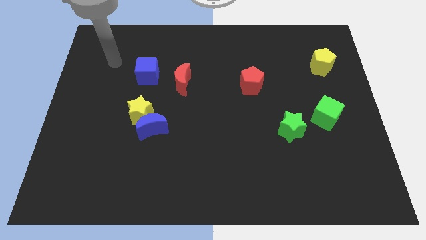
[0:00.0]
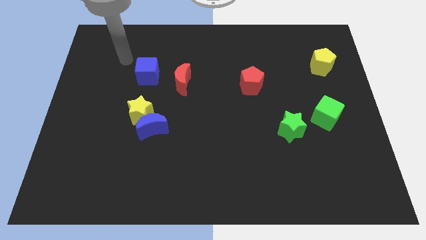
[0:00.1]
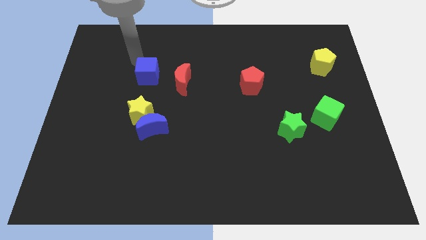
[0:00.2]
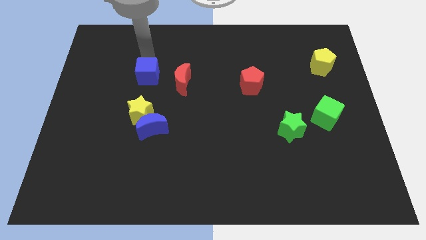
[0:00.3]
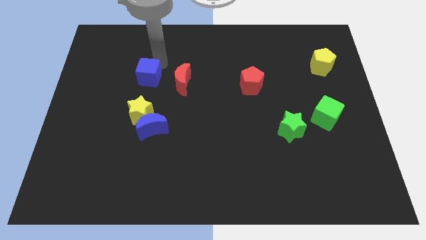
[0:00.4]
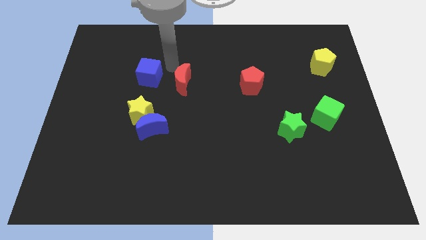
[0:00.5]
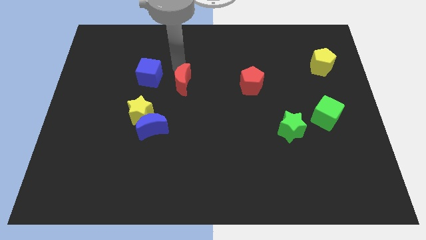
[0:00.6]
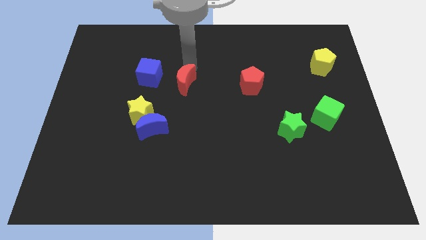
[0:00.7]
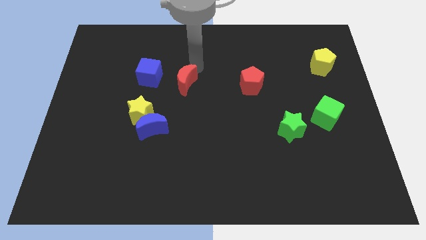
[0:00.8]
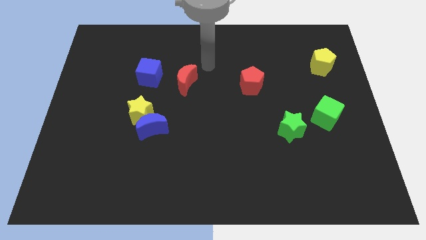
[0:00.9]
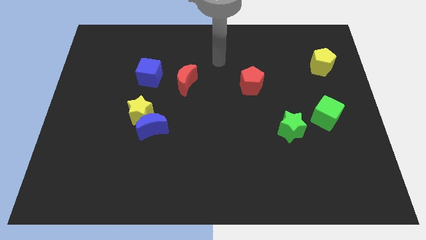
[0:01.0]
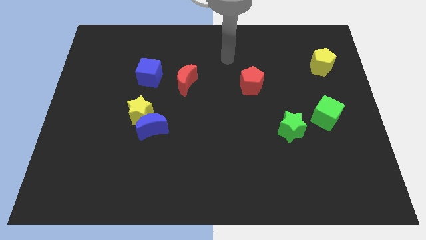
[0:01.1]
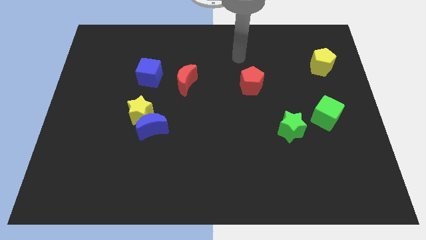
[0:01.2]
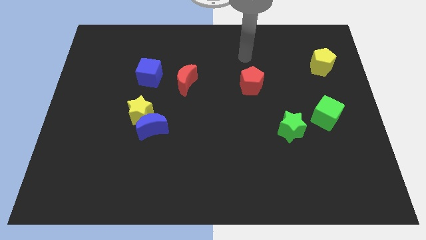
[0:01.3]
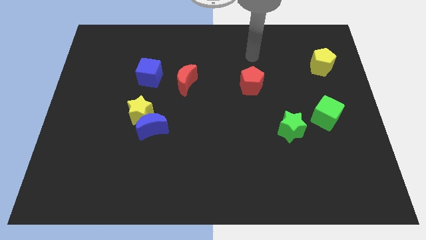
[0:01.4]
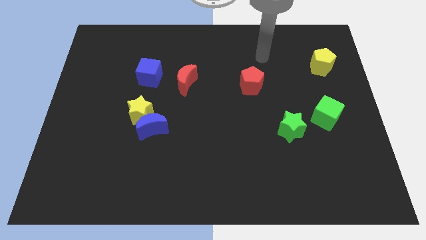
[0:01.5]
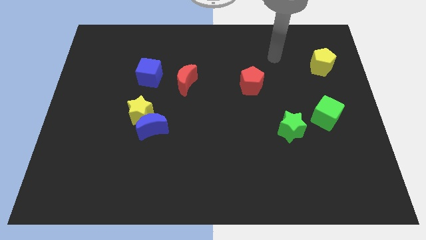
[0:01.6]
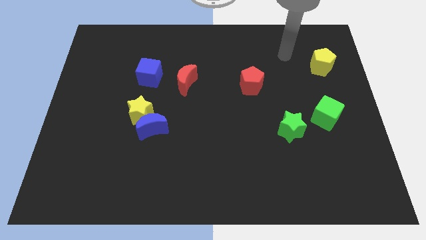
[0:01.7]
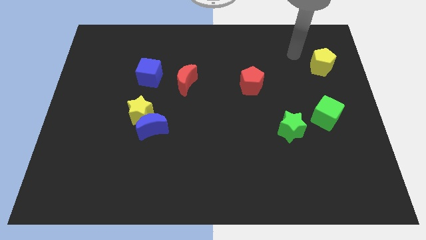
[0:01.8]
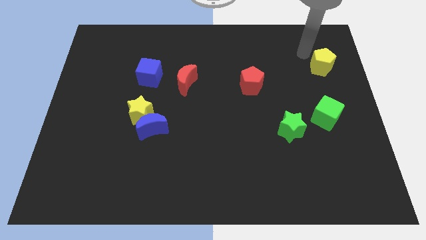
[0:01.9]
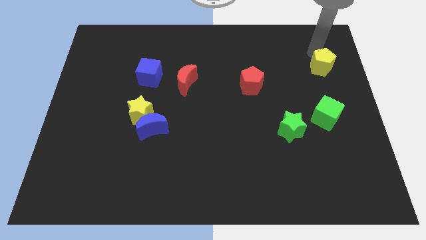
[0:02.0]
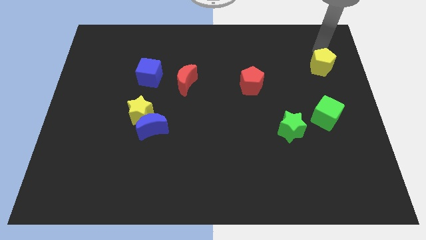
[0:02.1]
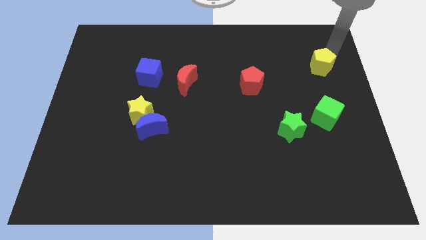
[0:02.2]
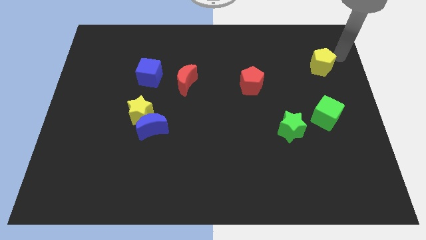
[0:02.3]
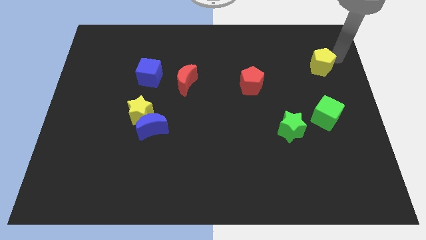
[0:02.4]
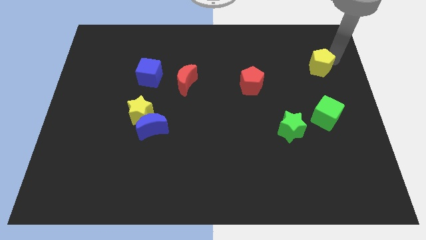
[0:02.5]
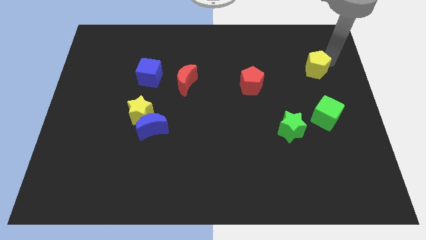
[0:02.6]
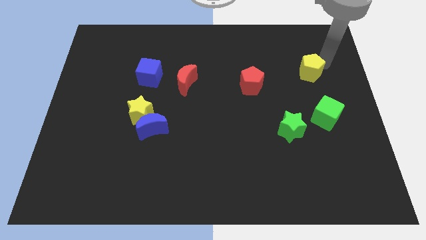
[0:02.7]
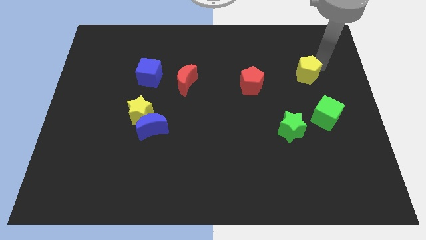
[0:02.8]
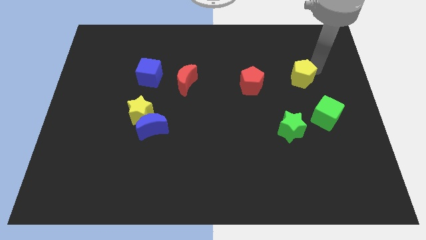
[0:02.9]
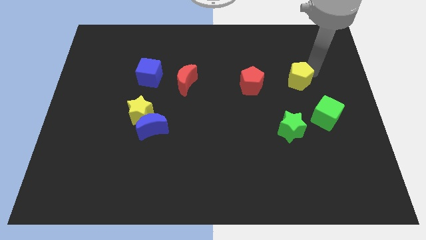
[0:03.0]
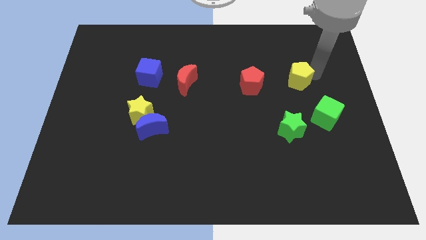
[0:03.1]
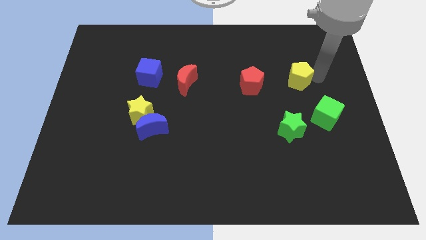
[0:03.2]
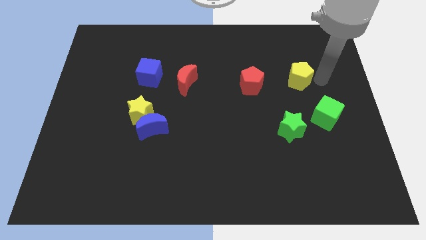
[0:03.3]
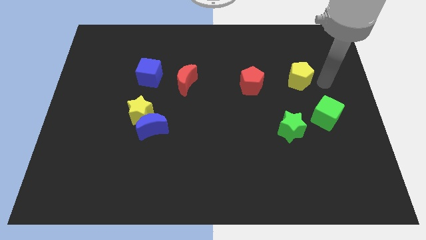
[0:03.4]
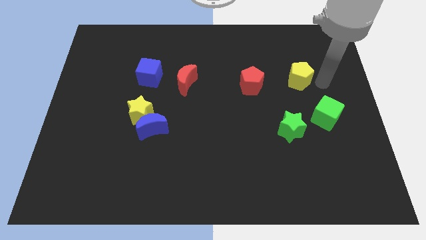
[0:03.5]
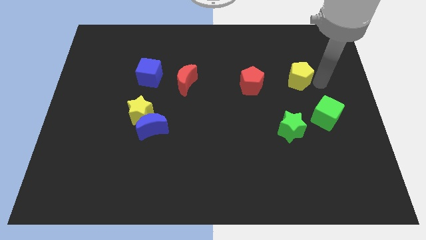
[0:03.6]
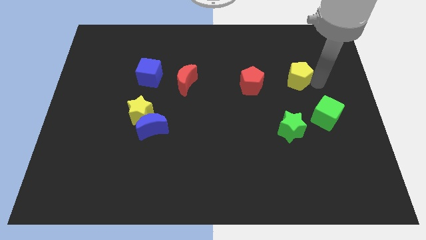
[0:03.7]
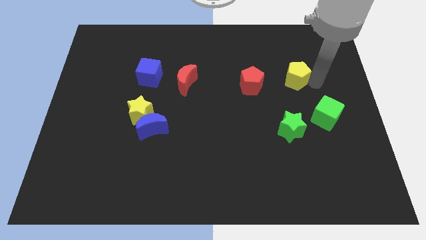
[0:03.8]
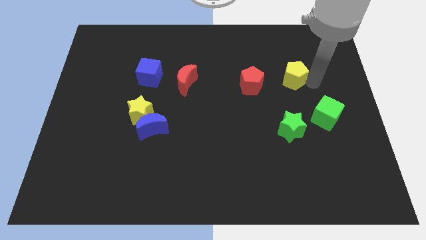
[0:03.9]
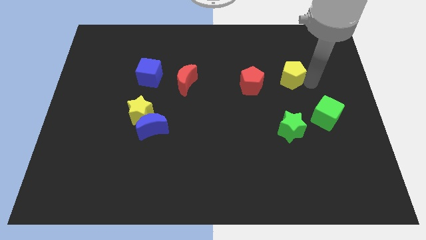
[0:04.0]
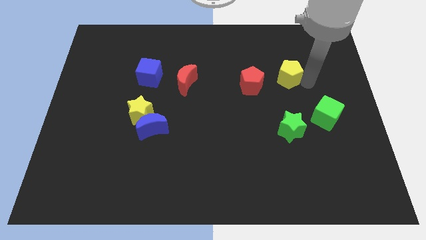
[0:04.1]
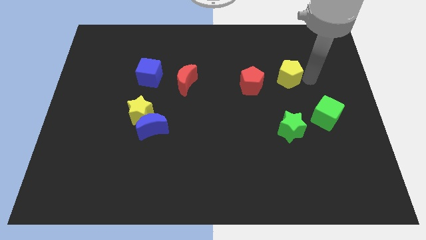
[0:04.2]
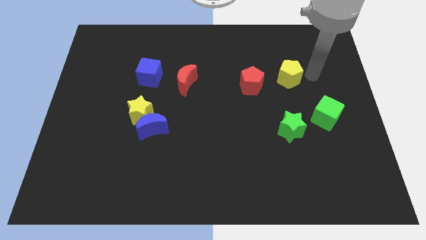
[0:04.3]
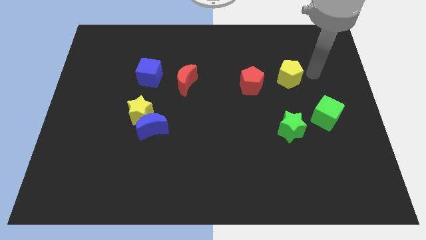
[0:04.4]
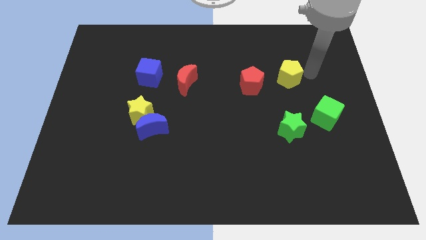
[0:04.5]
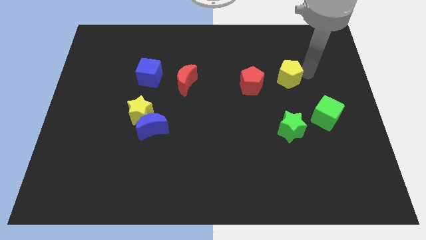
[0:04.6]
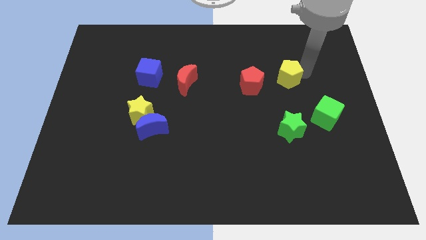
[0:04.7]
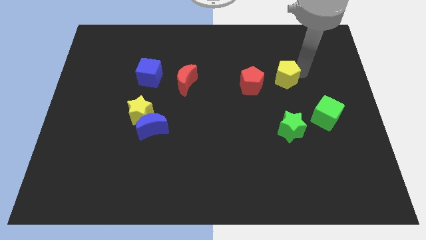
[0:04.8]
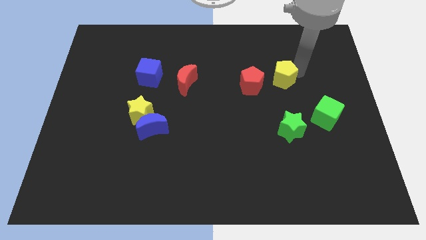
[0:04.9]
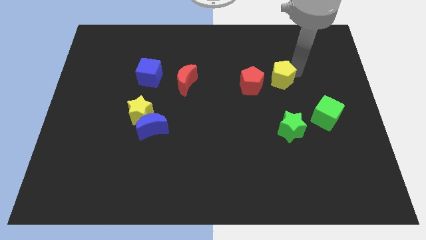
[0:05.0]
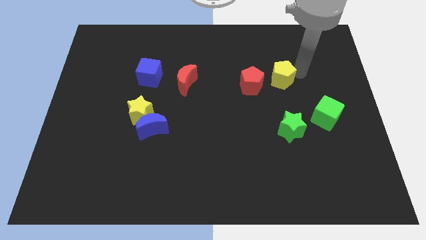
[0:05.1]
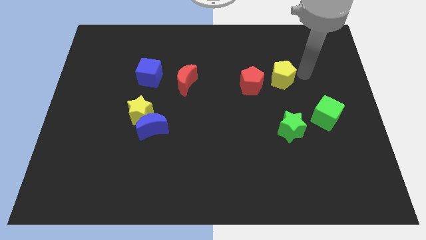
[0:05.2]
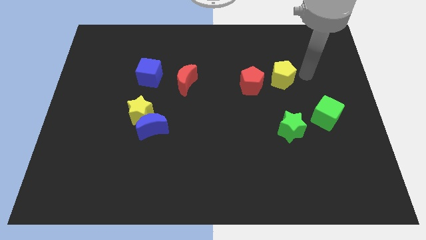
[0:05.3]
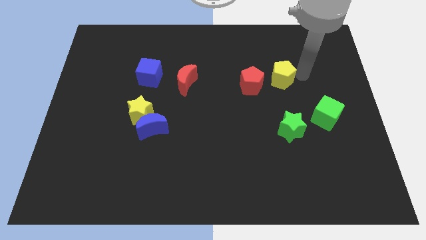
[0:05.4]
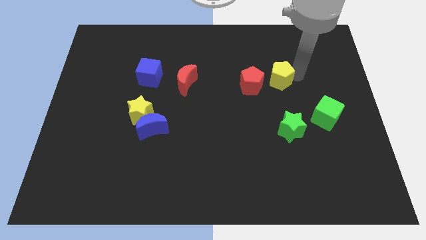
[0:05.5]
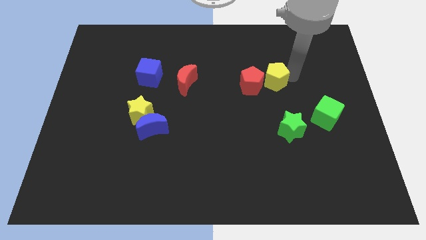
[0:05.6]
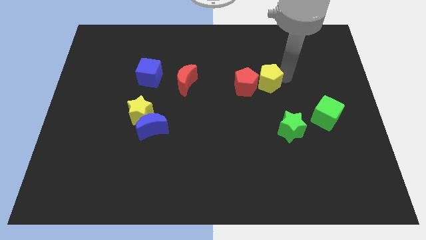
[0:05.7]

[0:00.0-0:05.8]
move the yellow pentagon to the red pentagon

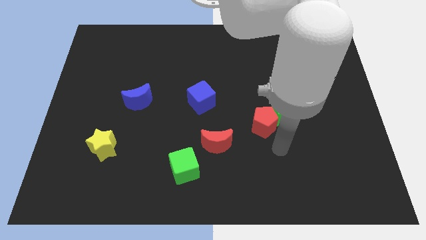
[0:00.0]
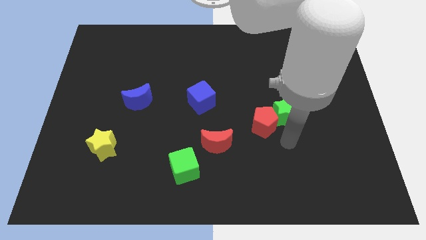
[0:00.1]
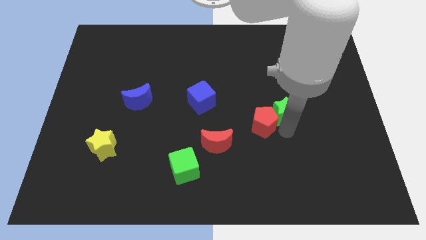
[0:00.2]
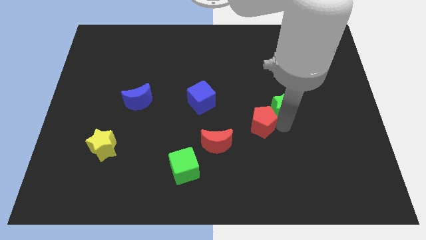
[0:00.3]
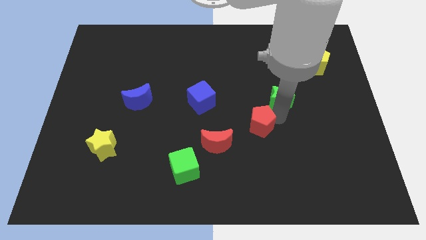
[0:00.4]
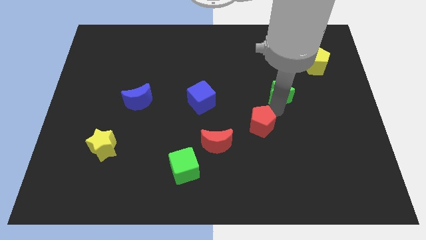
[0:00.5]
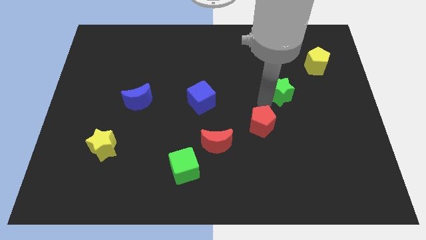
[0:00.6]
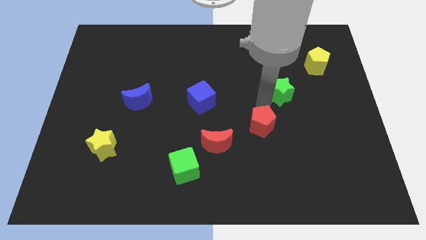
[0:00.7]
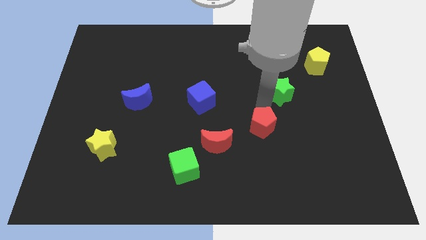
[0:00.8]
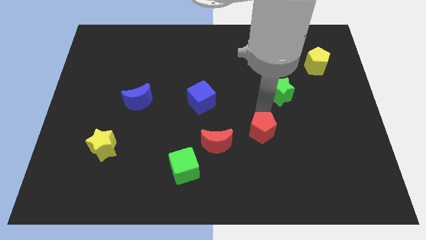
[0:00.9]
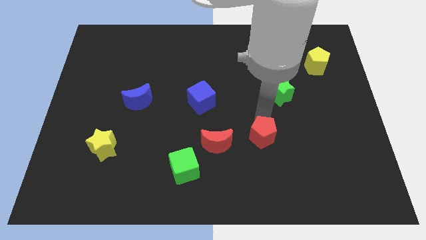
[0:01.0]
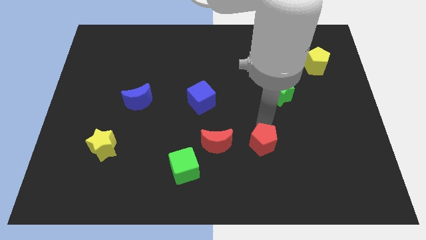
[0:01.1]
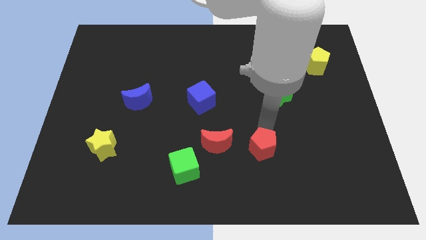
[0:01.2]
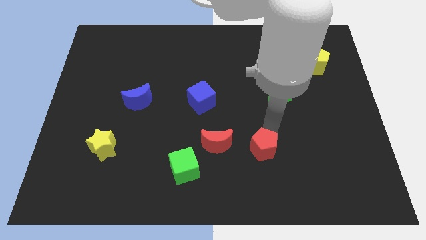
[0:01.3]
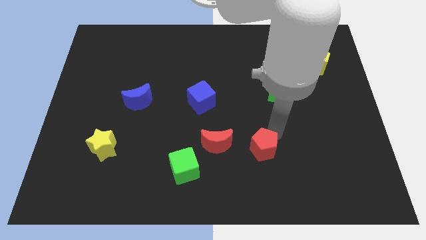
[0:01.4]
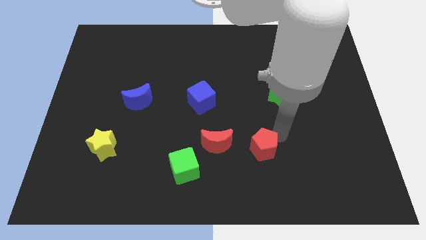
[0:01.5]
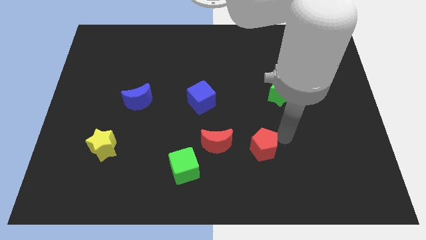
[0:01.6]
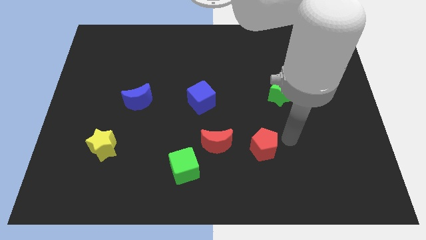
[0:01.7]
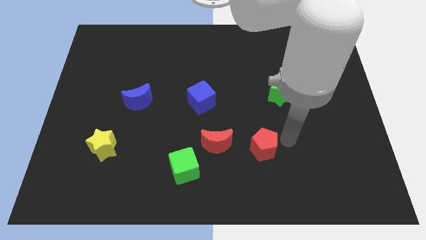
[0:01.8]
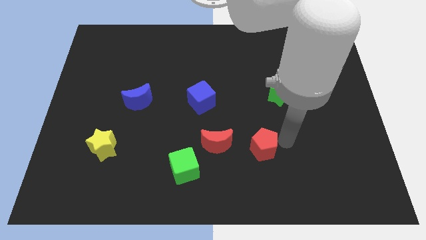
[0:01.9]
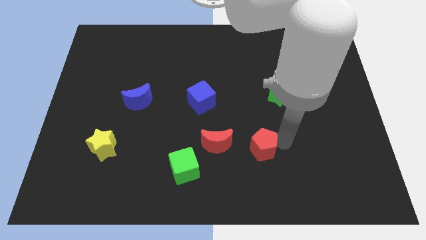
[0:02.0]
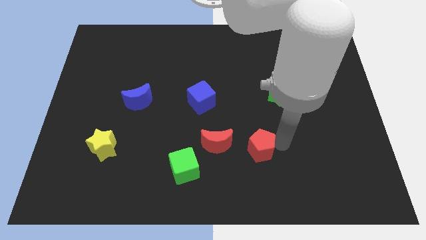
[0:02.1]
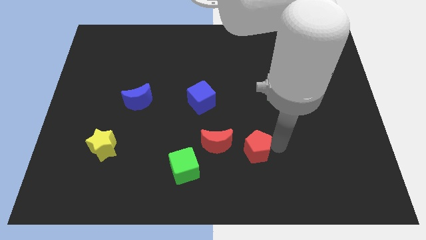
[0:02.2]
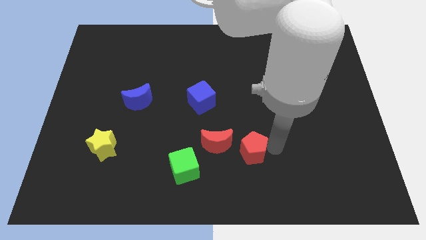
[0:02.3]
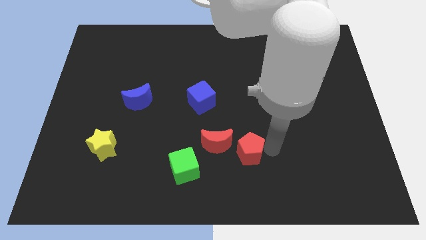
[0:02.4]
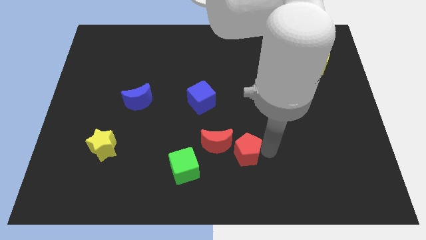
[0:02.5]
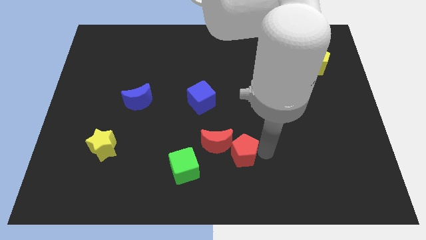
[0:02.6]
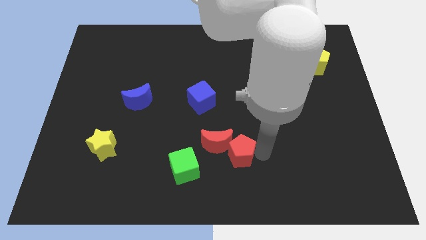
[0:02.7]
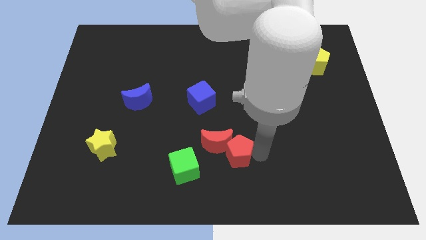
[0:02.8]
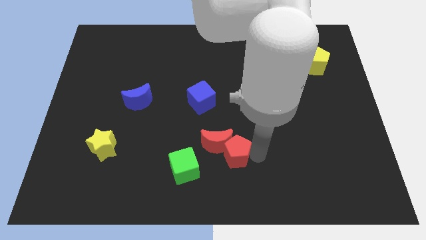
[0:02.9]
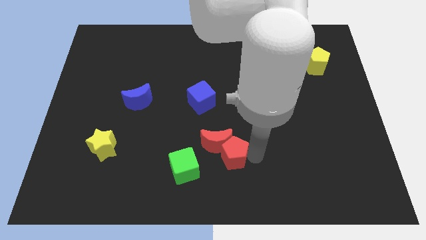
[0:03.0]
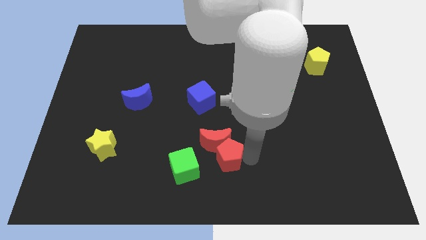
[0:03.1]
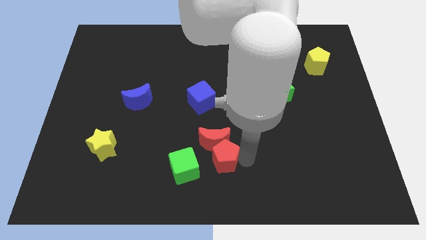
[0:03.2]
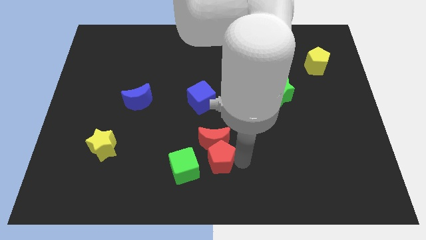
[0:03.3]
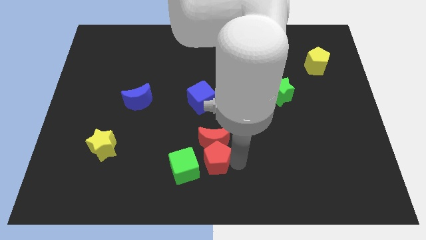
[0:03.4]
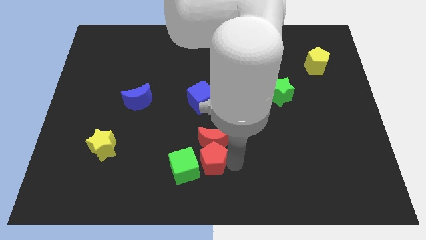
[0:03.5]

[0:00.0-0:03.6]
move the red pentagon close to the green cube
